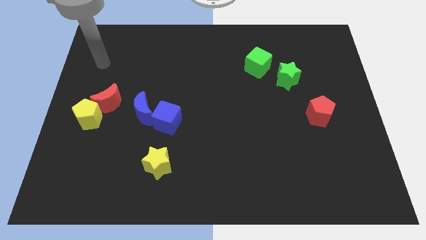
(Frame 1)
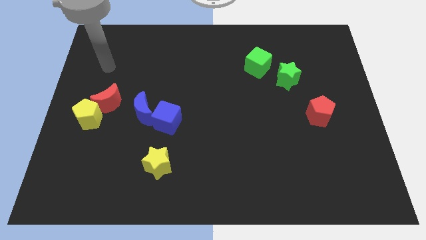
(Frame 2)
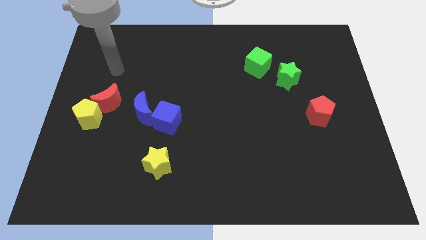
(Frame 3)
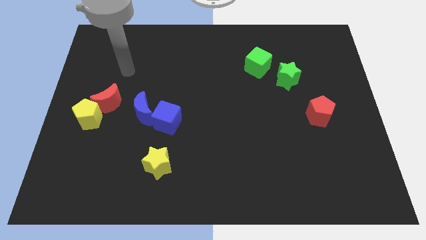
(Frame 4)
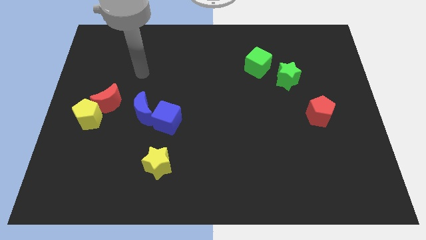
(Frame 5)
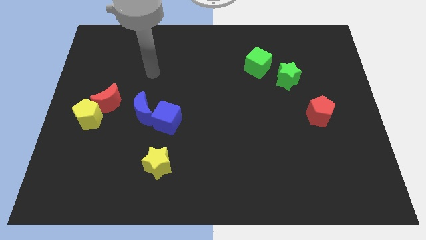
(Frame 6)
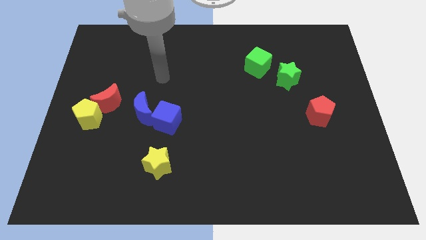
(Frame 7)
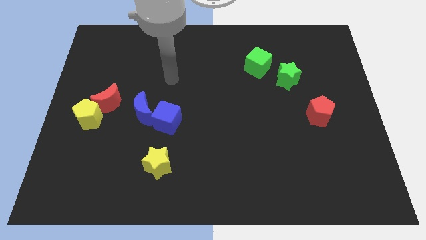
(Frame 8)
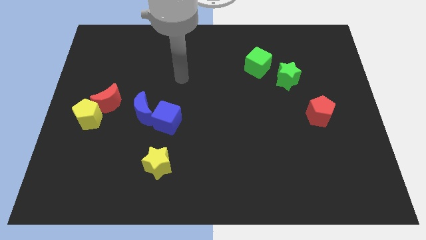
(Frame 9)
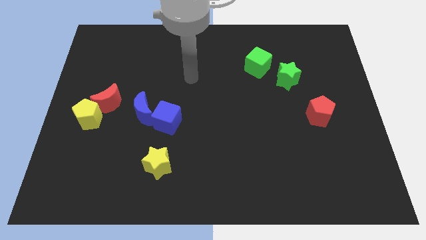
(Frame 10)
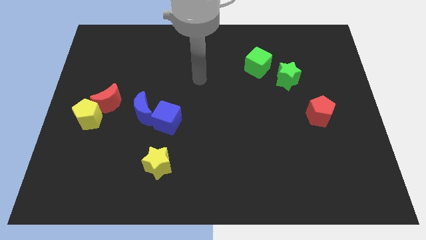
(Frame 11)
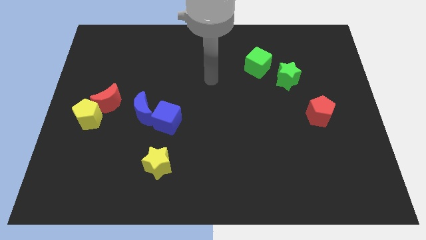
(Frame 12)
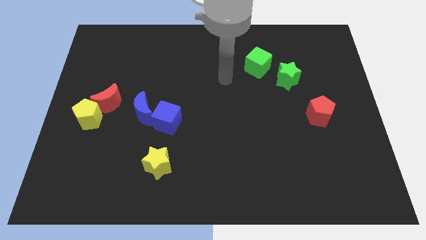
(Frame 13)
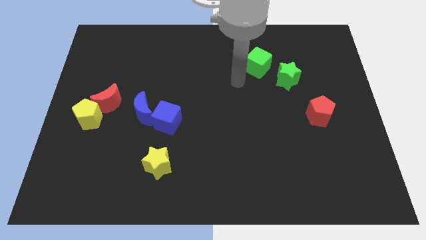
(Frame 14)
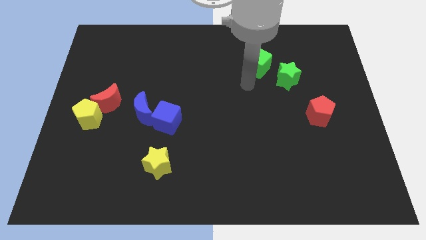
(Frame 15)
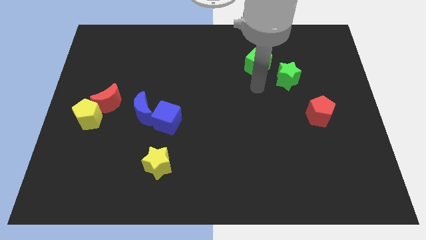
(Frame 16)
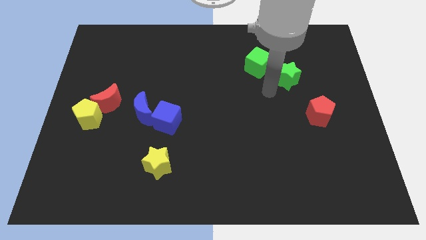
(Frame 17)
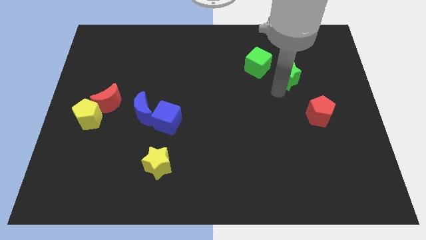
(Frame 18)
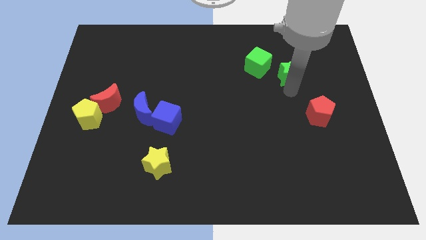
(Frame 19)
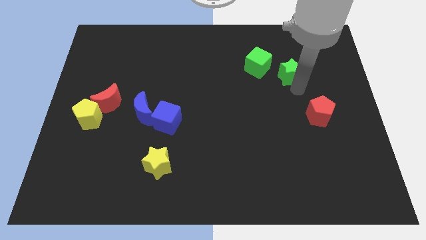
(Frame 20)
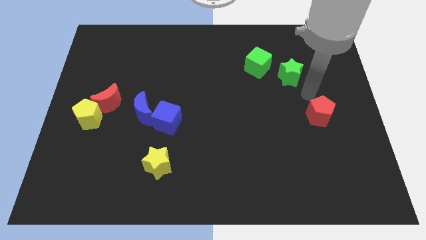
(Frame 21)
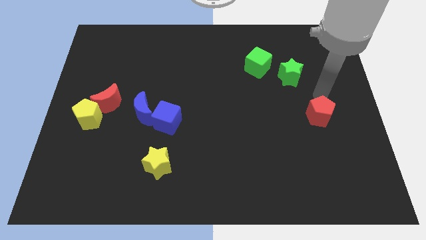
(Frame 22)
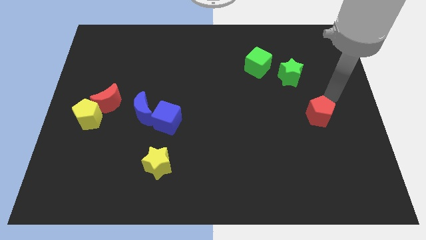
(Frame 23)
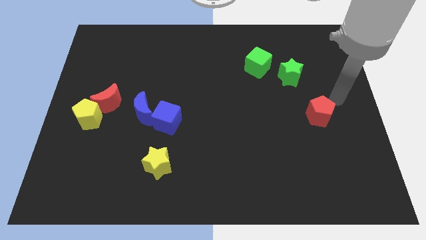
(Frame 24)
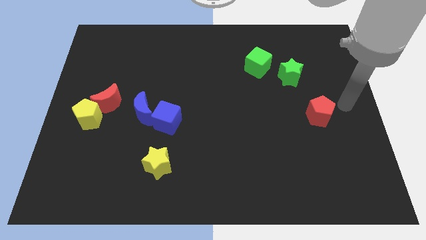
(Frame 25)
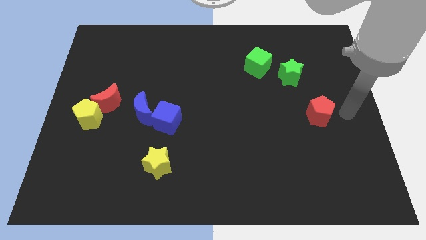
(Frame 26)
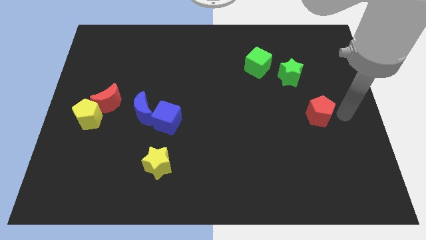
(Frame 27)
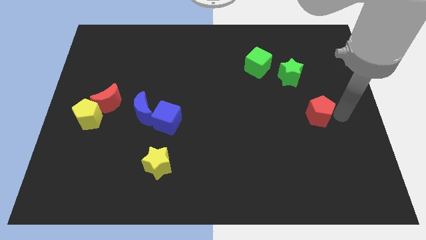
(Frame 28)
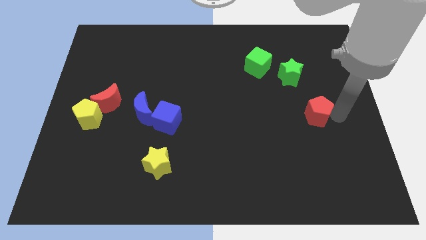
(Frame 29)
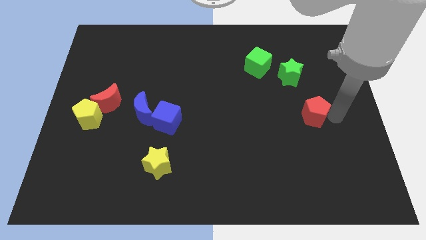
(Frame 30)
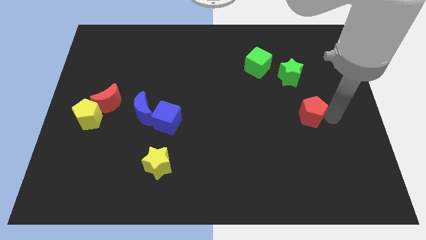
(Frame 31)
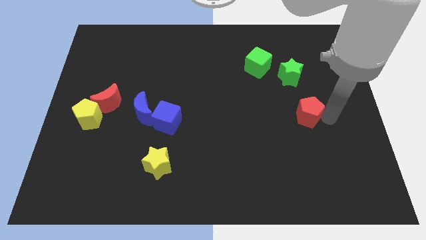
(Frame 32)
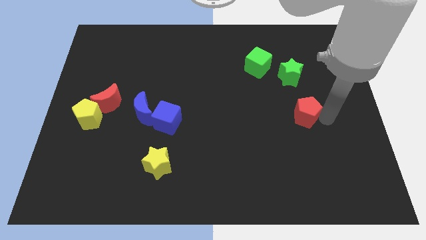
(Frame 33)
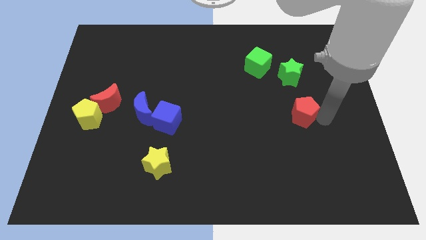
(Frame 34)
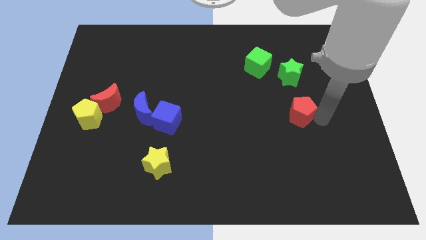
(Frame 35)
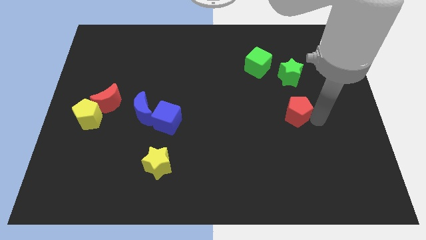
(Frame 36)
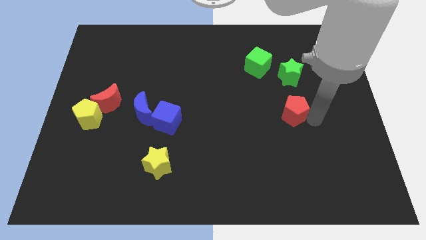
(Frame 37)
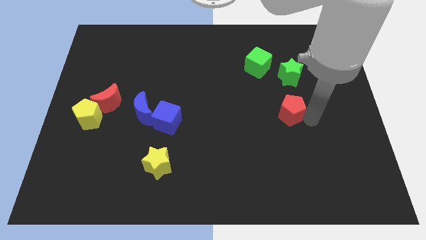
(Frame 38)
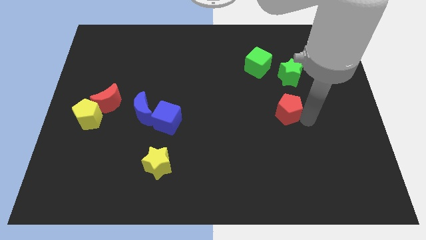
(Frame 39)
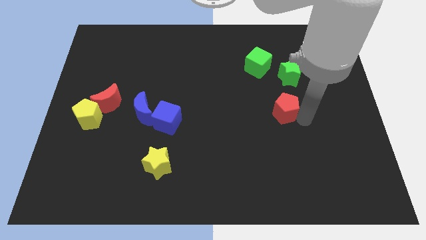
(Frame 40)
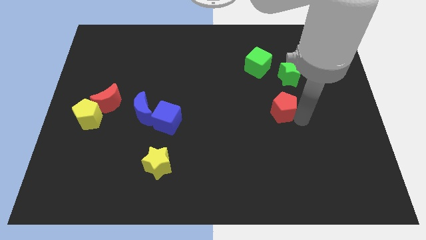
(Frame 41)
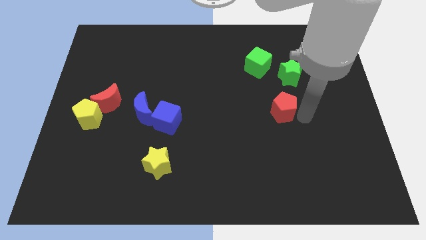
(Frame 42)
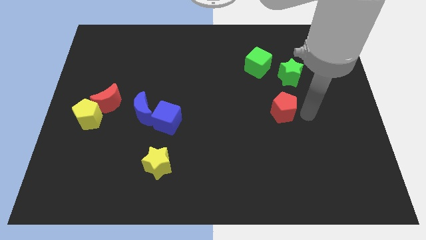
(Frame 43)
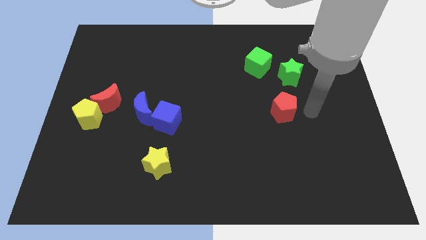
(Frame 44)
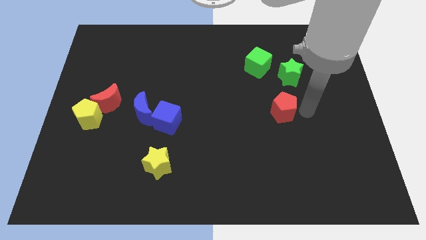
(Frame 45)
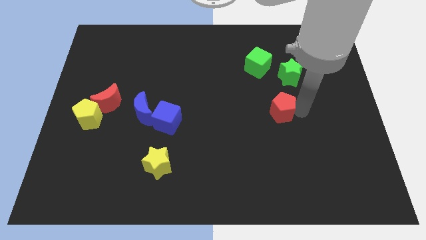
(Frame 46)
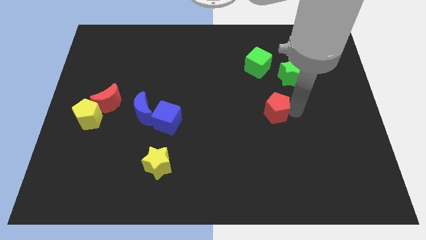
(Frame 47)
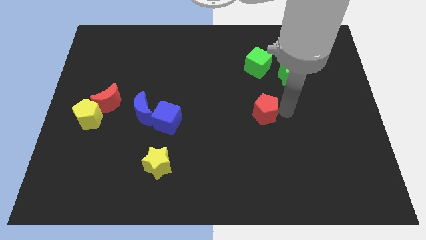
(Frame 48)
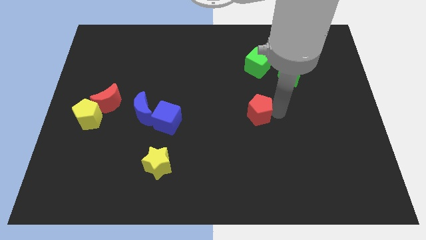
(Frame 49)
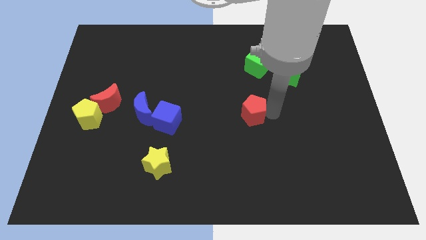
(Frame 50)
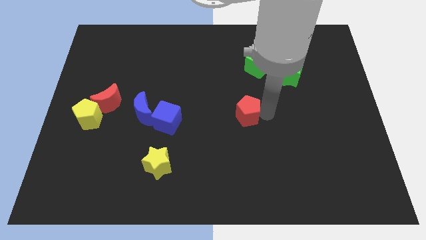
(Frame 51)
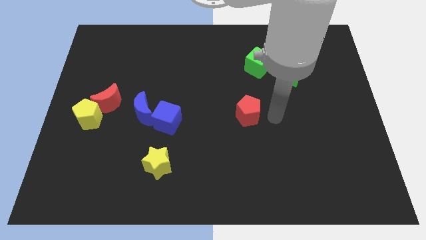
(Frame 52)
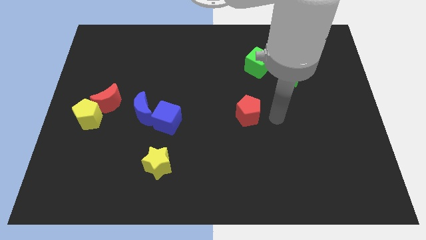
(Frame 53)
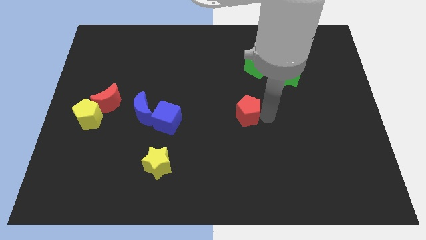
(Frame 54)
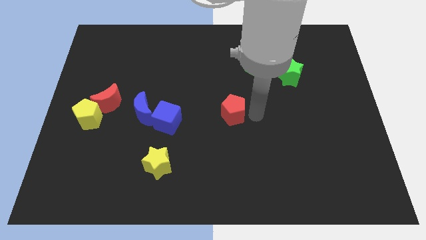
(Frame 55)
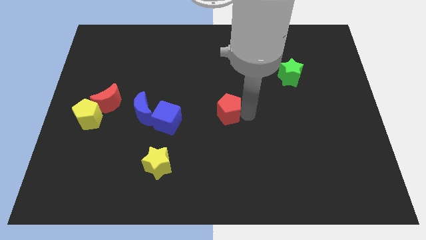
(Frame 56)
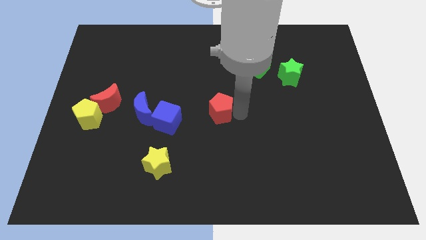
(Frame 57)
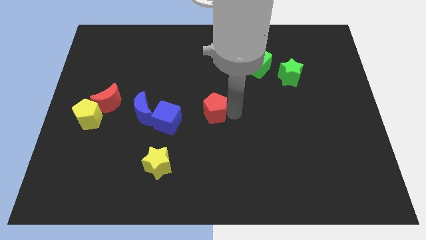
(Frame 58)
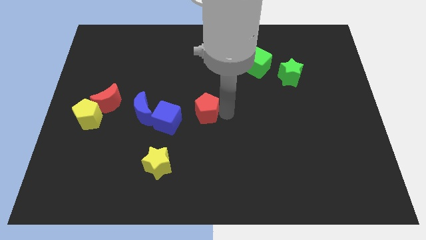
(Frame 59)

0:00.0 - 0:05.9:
put the red pentagon to the top right of the blue cube

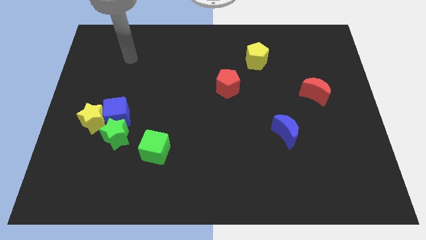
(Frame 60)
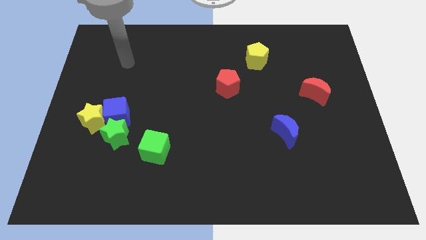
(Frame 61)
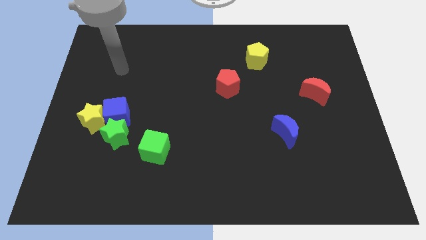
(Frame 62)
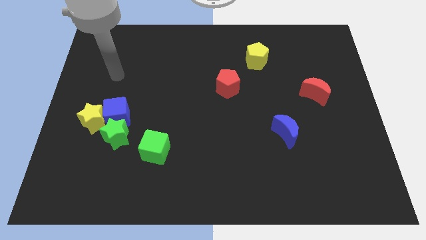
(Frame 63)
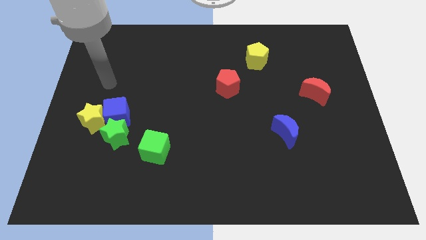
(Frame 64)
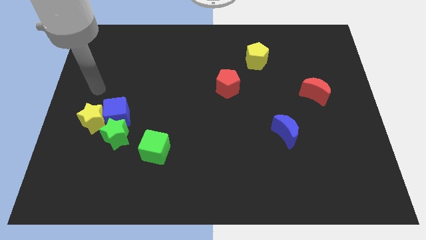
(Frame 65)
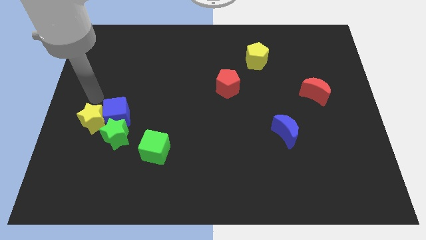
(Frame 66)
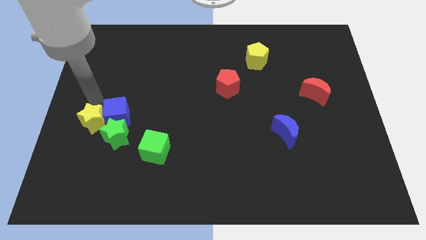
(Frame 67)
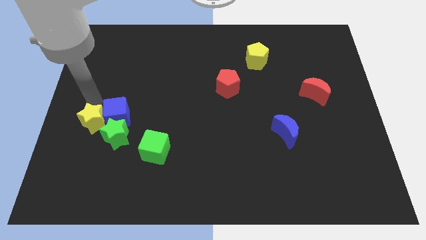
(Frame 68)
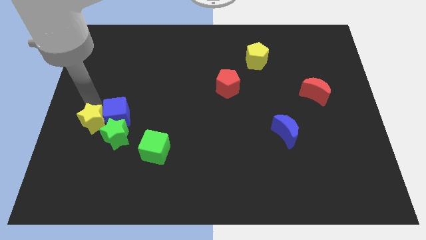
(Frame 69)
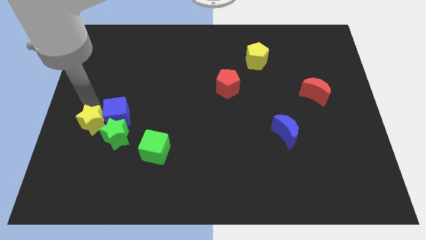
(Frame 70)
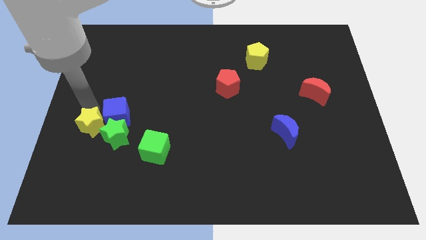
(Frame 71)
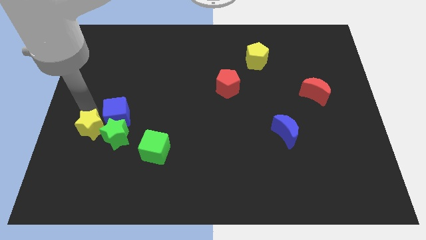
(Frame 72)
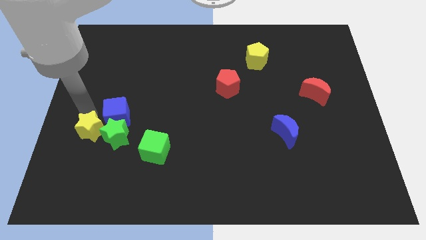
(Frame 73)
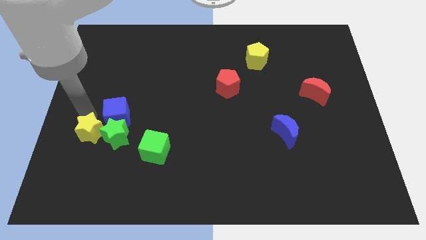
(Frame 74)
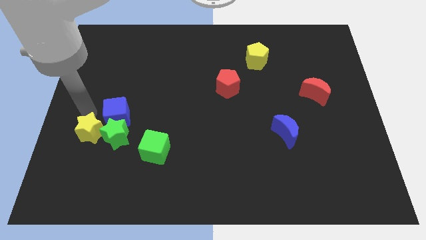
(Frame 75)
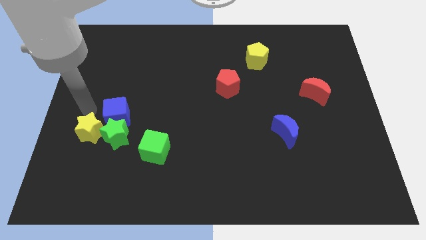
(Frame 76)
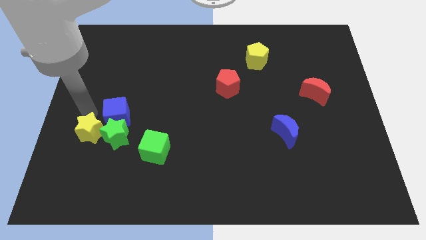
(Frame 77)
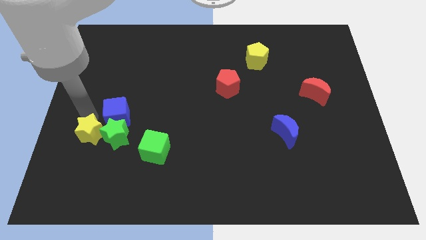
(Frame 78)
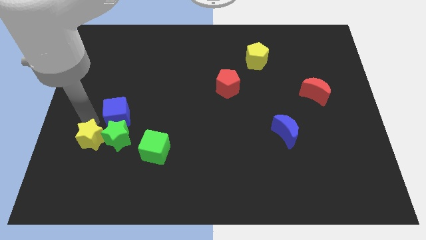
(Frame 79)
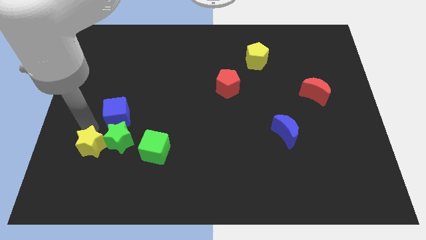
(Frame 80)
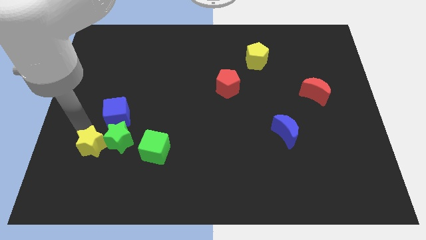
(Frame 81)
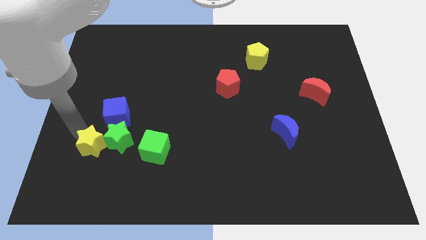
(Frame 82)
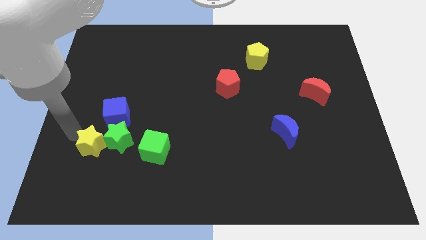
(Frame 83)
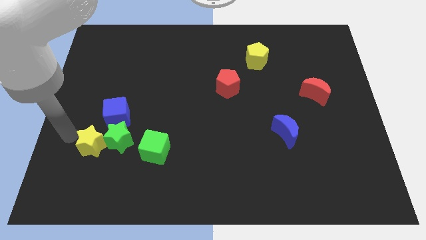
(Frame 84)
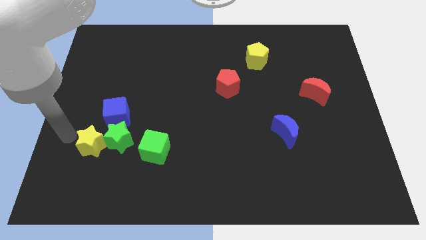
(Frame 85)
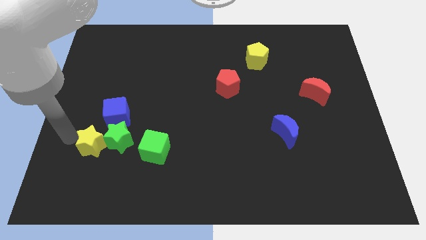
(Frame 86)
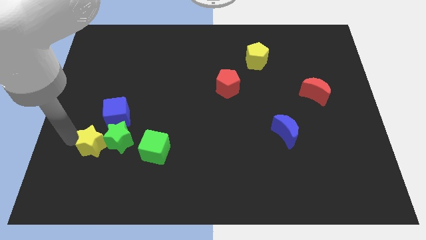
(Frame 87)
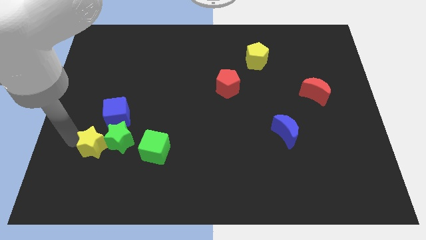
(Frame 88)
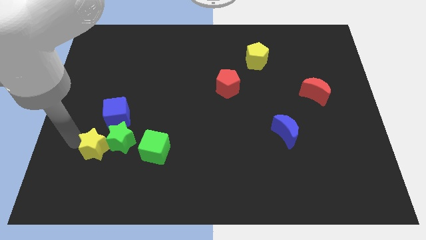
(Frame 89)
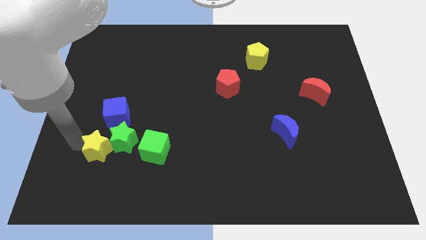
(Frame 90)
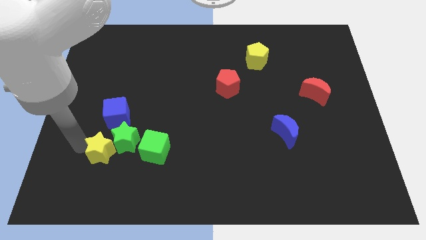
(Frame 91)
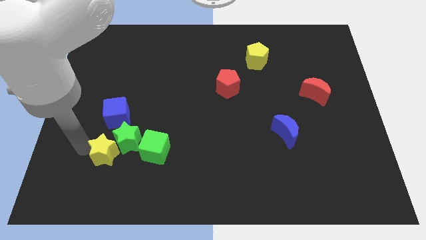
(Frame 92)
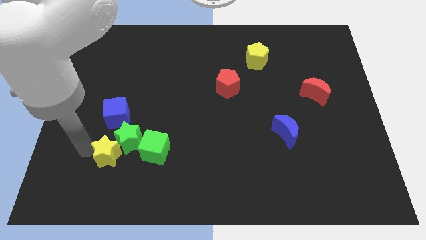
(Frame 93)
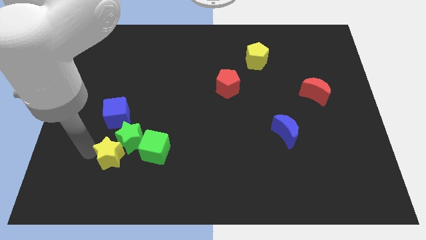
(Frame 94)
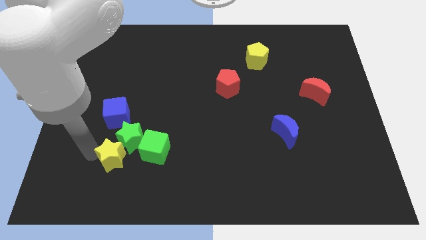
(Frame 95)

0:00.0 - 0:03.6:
put the yellow star to the bottom left of the green cube
